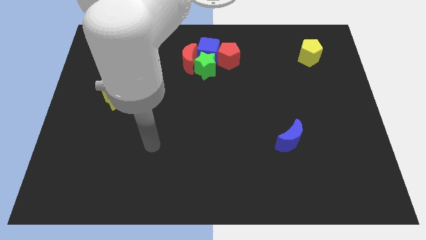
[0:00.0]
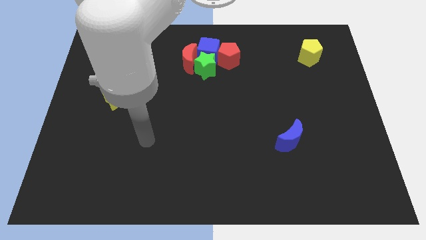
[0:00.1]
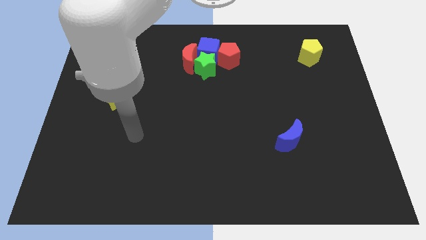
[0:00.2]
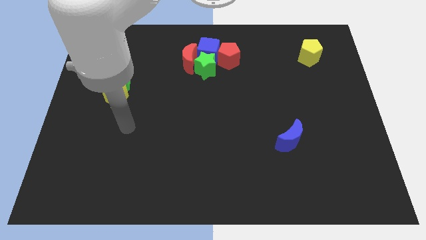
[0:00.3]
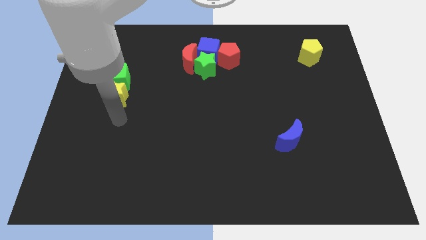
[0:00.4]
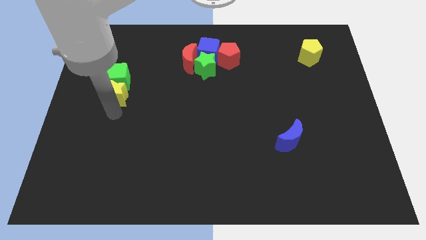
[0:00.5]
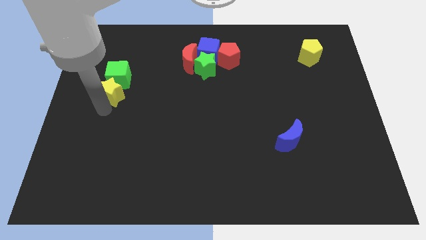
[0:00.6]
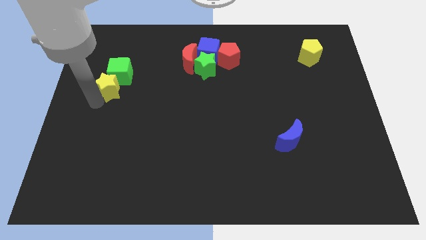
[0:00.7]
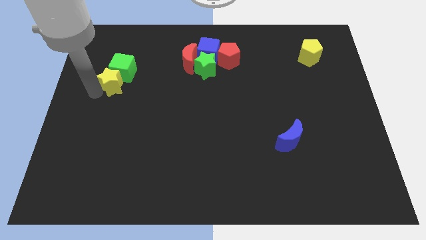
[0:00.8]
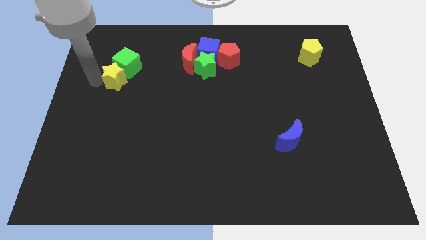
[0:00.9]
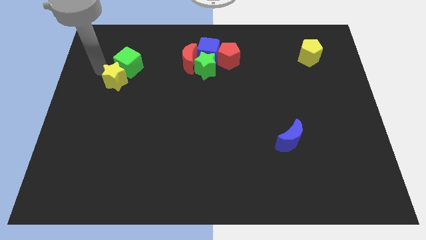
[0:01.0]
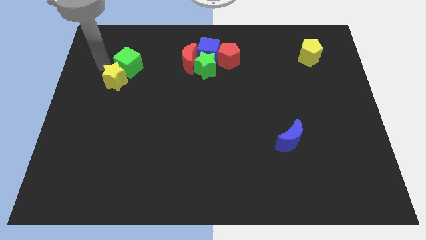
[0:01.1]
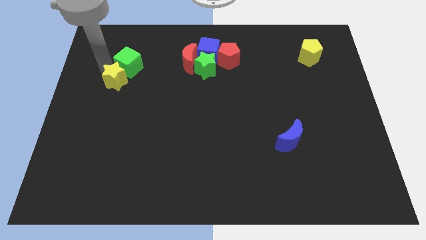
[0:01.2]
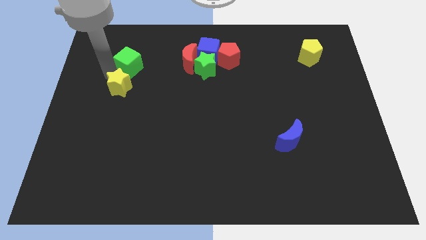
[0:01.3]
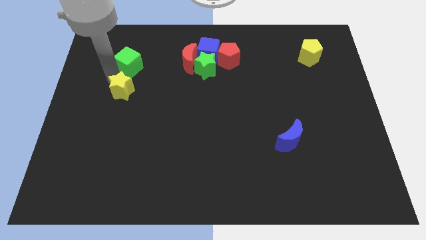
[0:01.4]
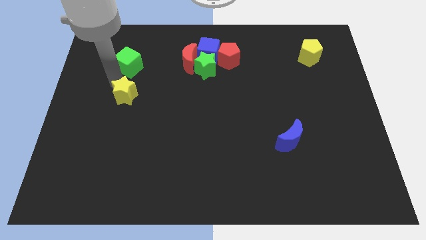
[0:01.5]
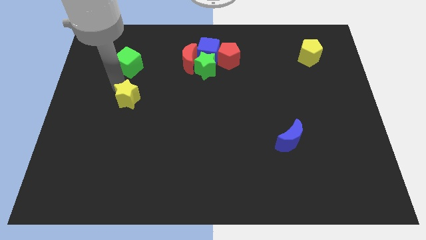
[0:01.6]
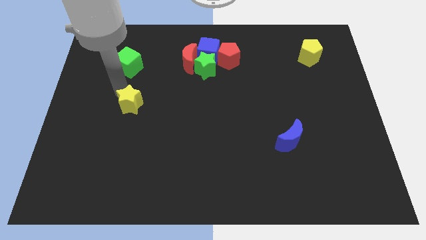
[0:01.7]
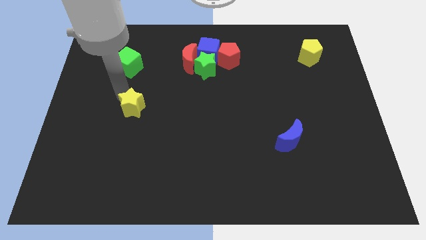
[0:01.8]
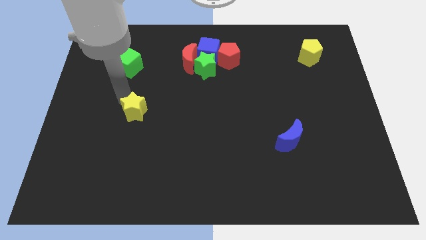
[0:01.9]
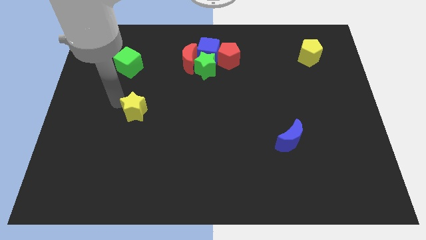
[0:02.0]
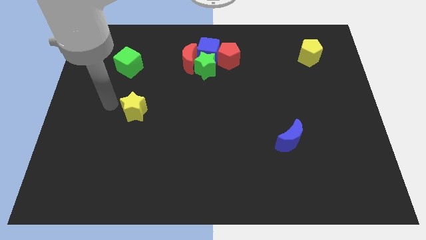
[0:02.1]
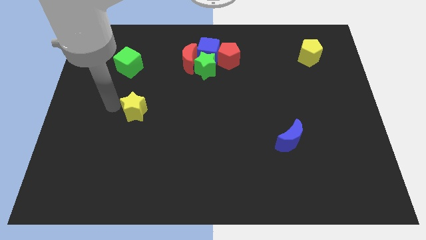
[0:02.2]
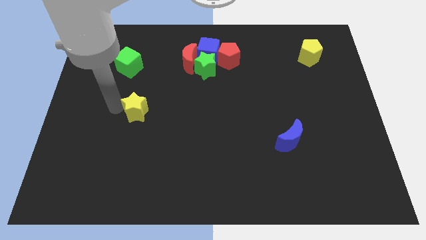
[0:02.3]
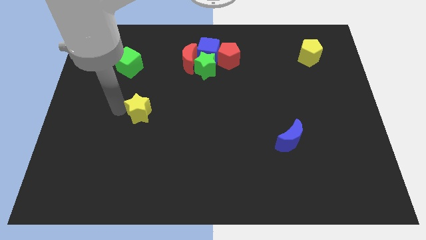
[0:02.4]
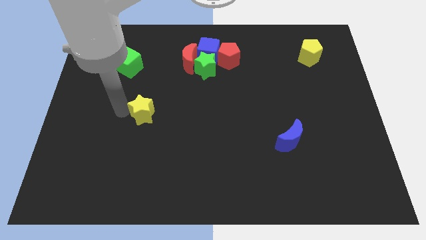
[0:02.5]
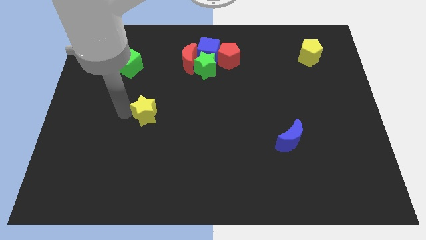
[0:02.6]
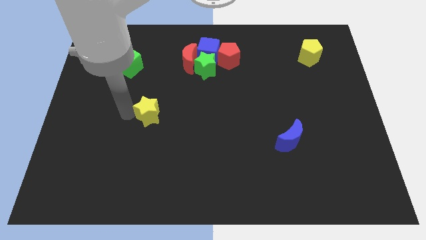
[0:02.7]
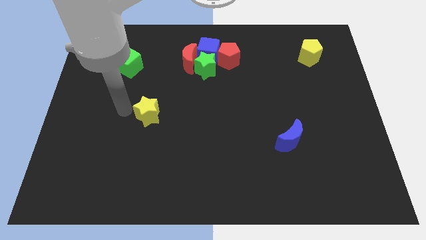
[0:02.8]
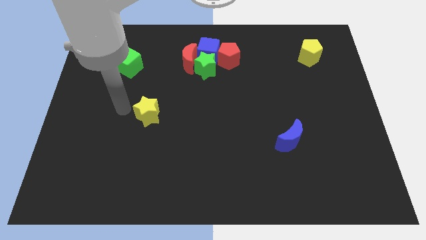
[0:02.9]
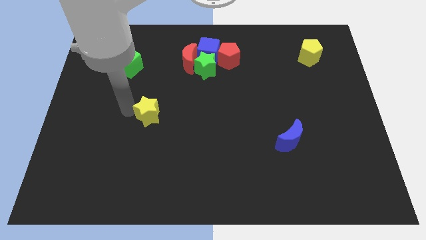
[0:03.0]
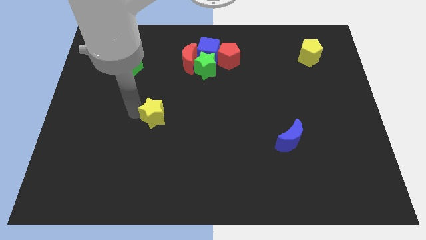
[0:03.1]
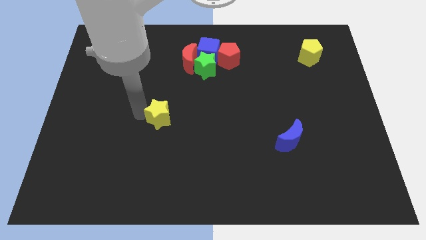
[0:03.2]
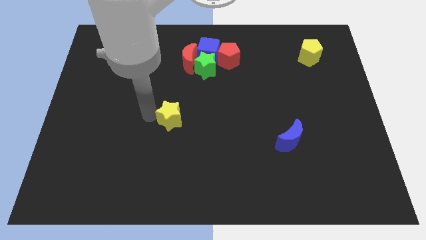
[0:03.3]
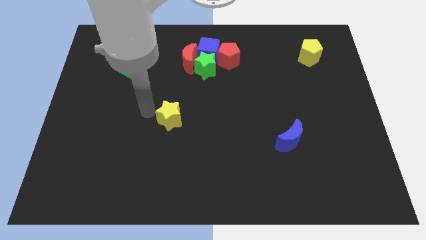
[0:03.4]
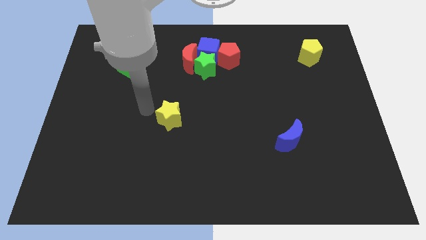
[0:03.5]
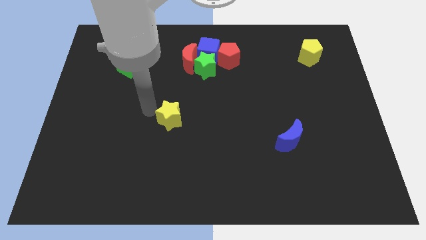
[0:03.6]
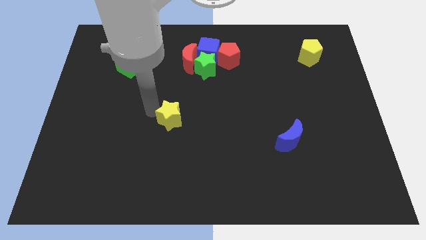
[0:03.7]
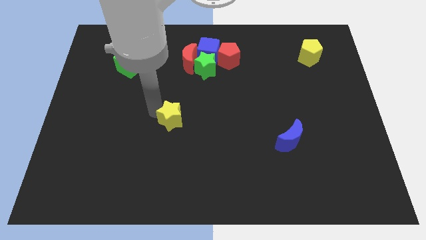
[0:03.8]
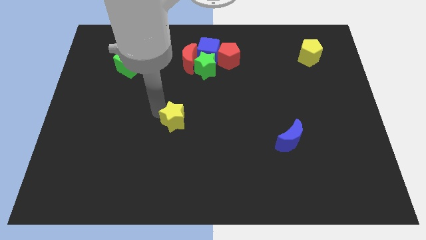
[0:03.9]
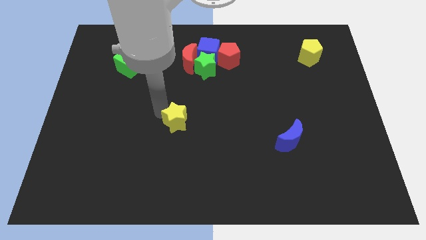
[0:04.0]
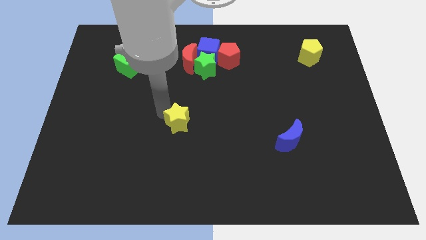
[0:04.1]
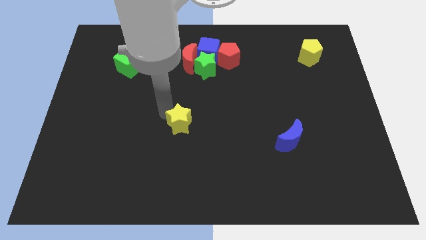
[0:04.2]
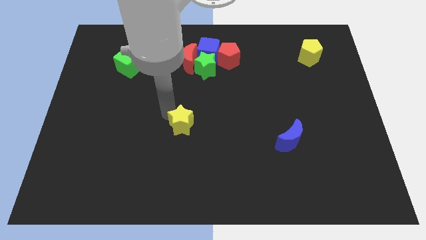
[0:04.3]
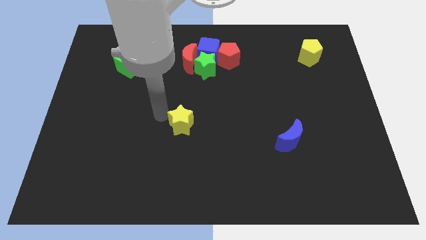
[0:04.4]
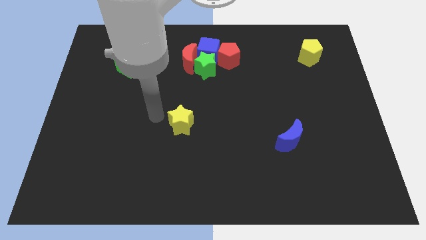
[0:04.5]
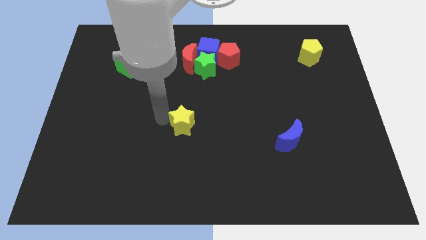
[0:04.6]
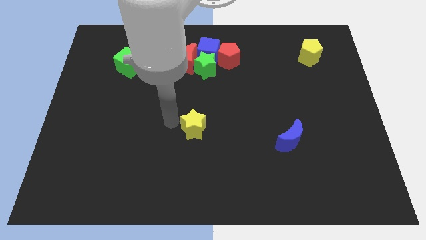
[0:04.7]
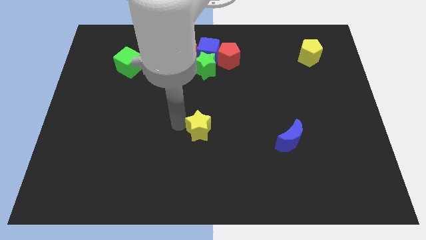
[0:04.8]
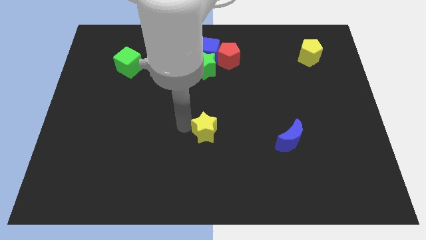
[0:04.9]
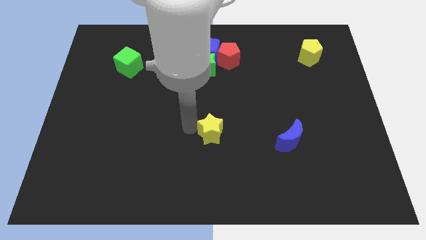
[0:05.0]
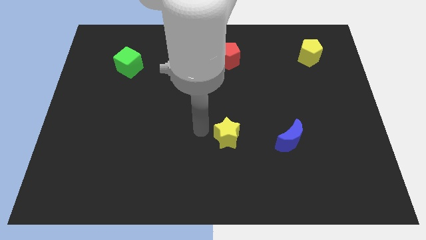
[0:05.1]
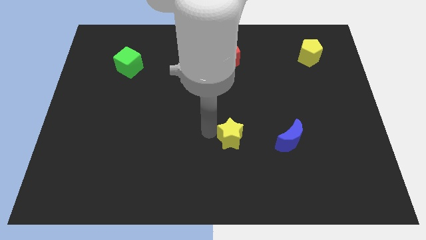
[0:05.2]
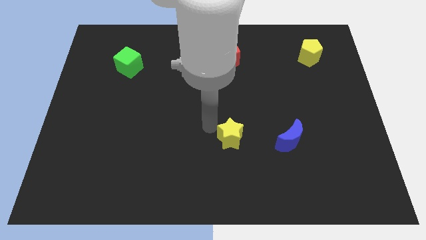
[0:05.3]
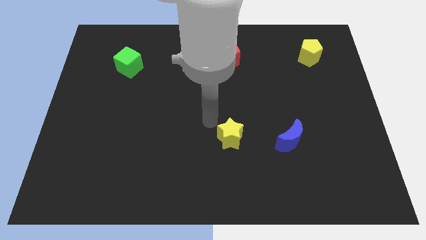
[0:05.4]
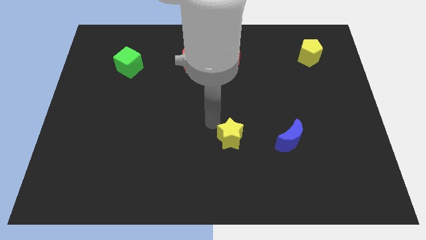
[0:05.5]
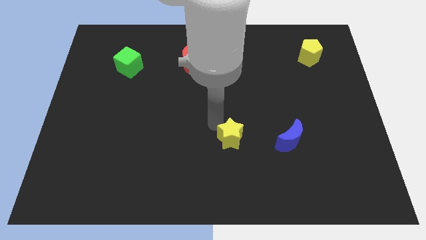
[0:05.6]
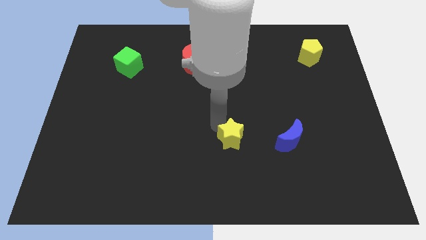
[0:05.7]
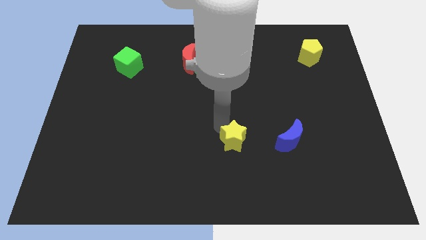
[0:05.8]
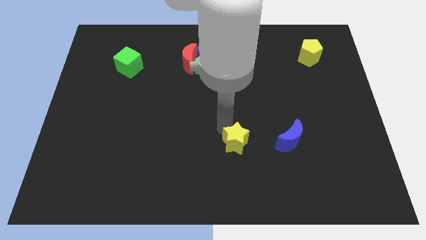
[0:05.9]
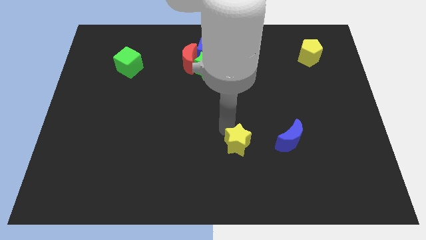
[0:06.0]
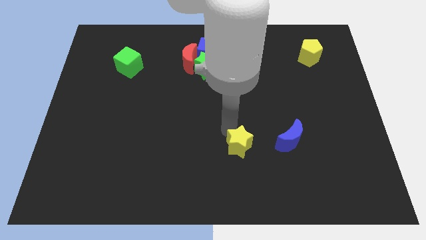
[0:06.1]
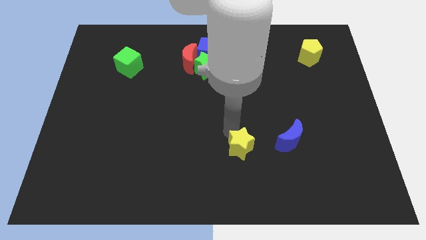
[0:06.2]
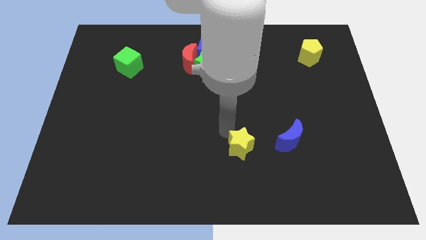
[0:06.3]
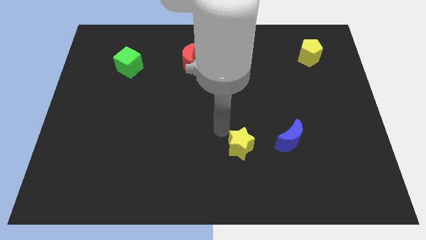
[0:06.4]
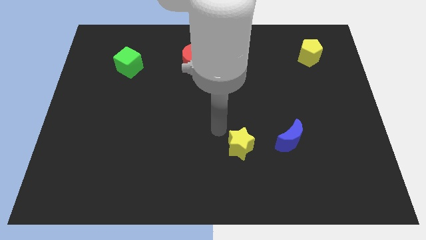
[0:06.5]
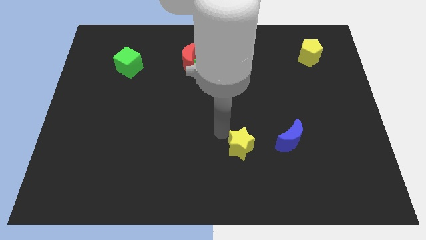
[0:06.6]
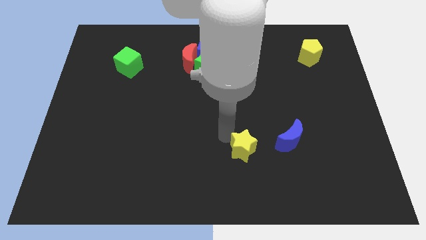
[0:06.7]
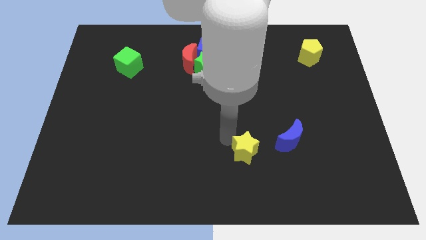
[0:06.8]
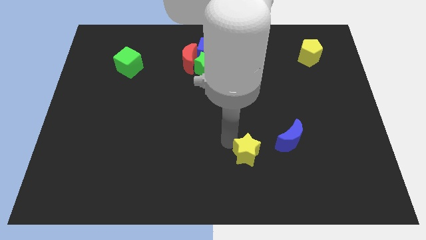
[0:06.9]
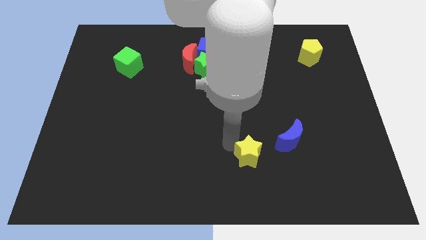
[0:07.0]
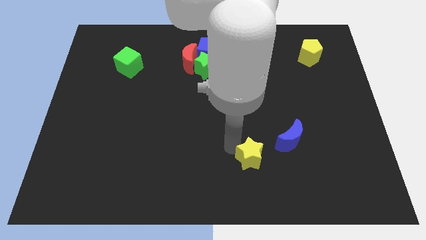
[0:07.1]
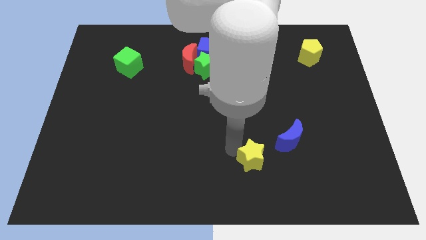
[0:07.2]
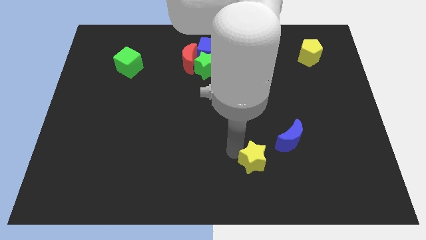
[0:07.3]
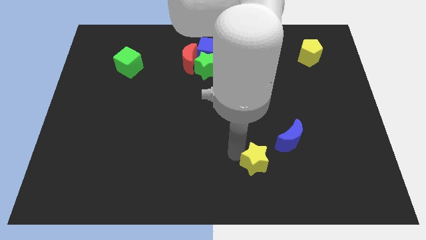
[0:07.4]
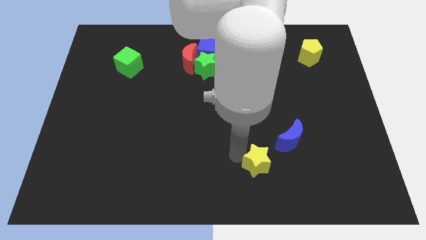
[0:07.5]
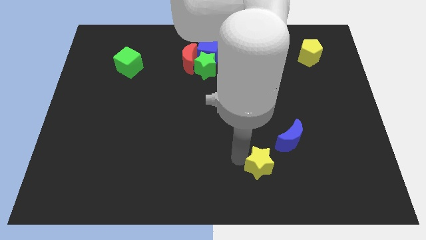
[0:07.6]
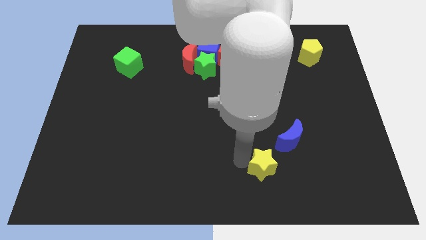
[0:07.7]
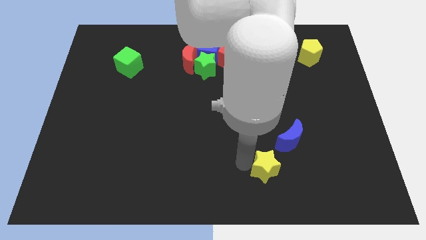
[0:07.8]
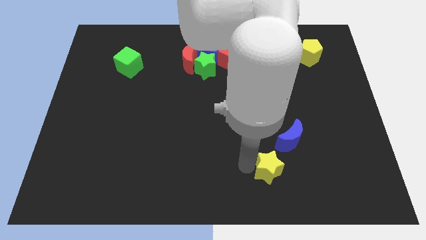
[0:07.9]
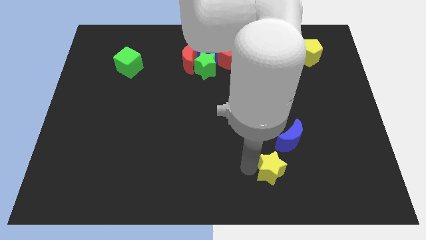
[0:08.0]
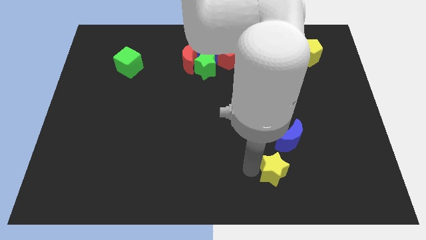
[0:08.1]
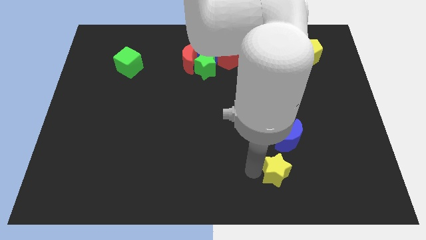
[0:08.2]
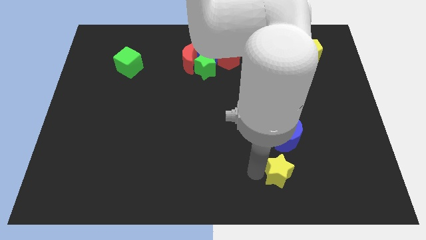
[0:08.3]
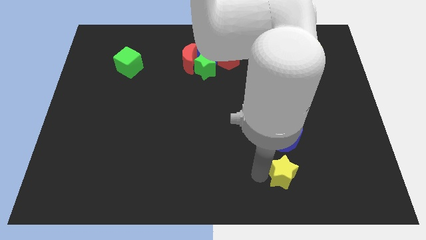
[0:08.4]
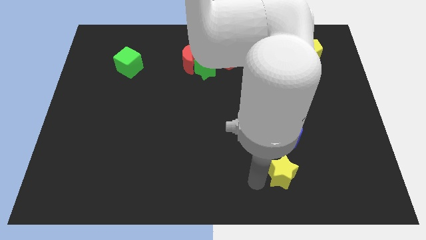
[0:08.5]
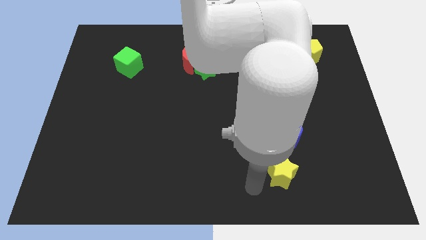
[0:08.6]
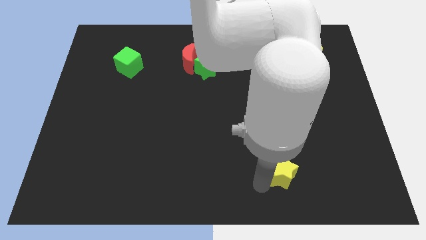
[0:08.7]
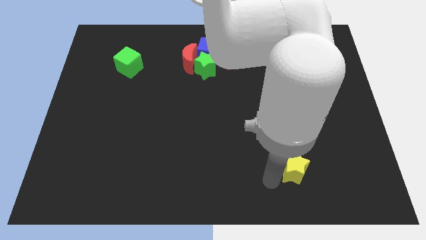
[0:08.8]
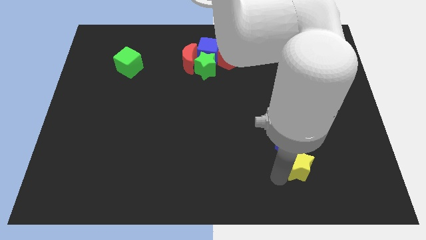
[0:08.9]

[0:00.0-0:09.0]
push the yellow star diagonally down and to the right of the blue moon
